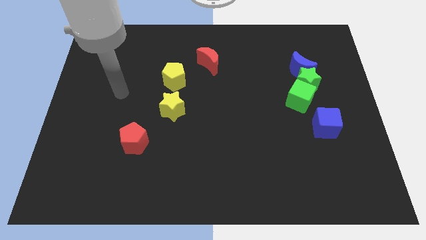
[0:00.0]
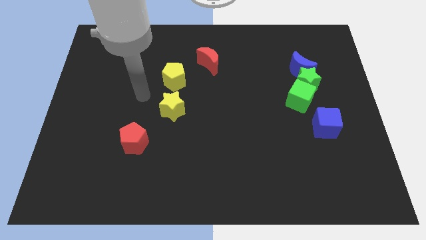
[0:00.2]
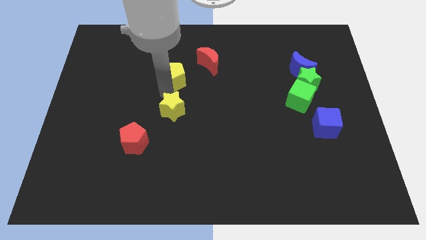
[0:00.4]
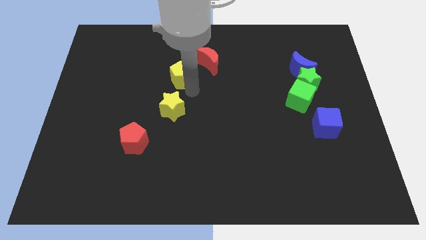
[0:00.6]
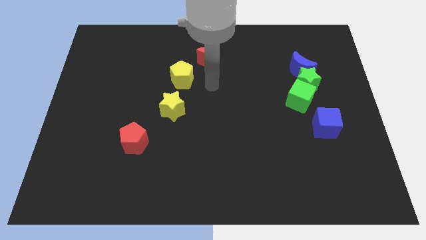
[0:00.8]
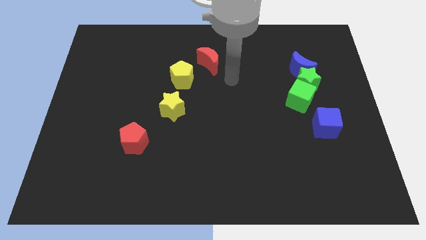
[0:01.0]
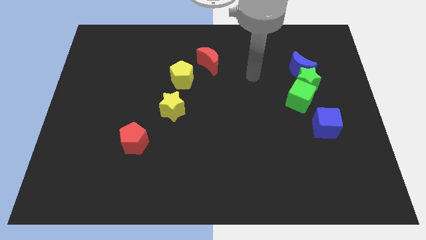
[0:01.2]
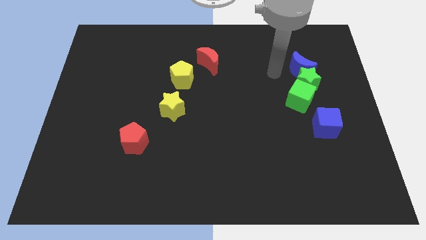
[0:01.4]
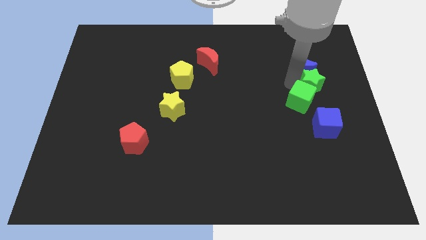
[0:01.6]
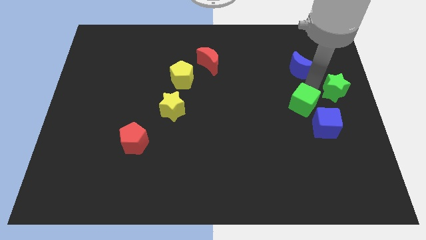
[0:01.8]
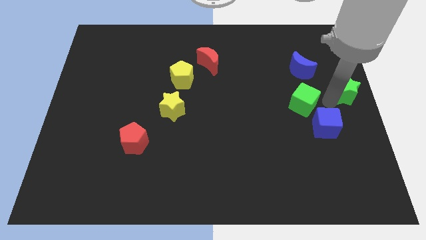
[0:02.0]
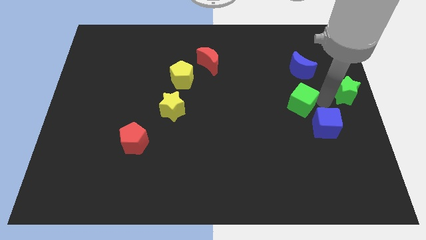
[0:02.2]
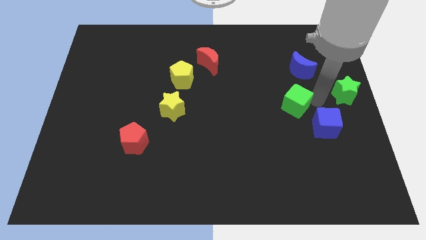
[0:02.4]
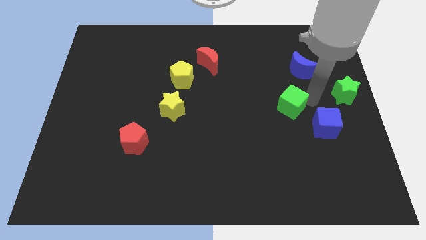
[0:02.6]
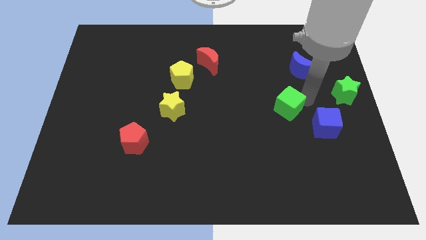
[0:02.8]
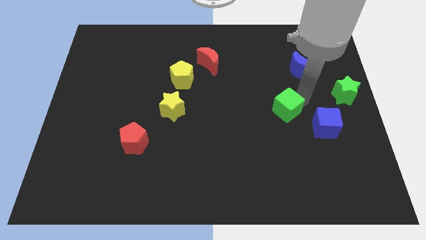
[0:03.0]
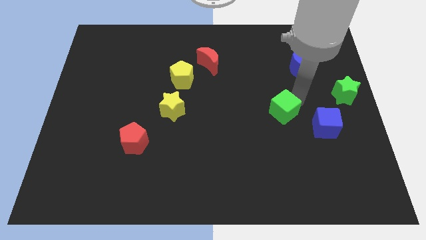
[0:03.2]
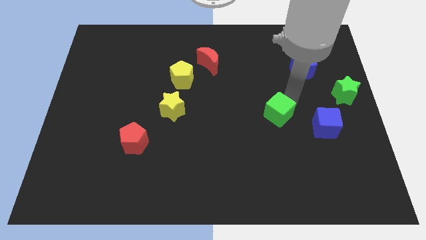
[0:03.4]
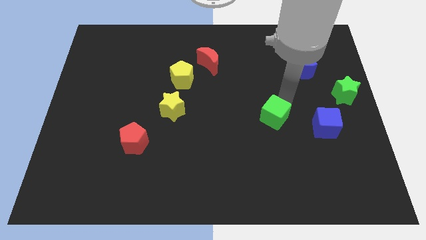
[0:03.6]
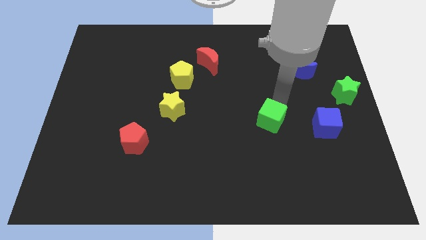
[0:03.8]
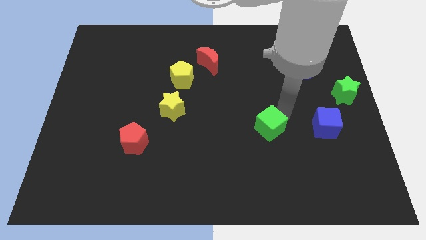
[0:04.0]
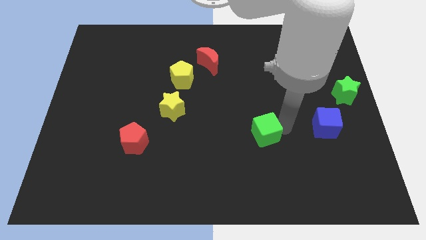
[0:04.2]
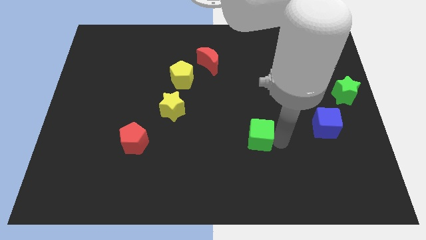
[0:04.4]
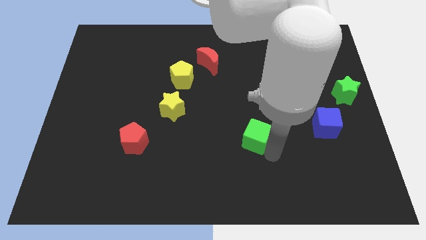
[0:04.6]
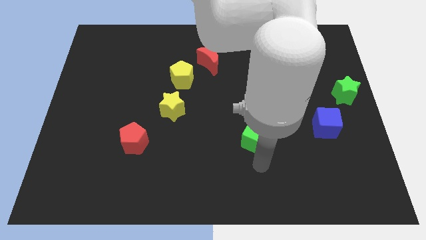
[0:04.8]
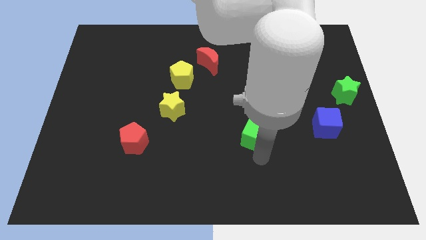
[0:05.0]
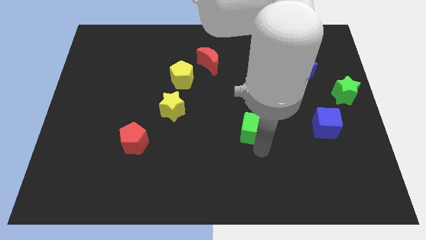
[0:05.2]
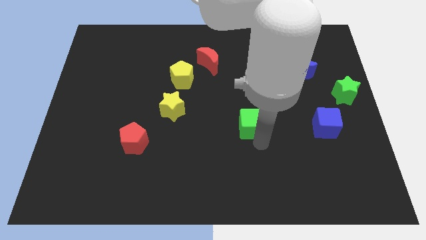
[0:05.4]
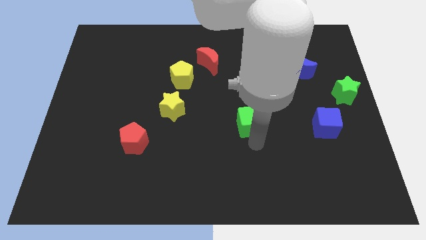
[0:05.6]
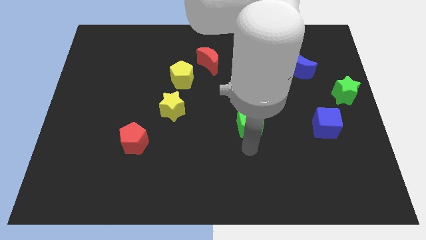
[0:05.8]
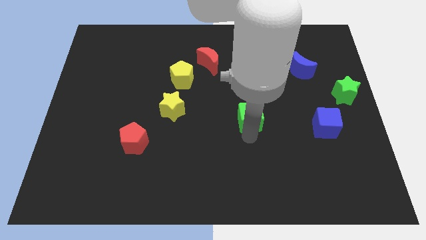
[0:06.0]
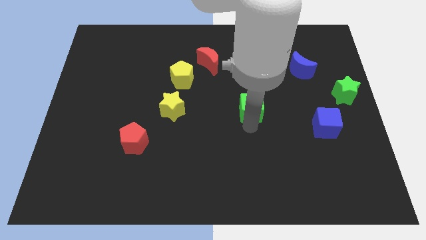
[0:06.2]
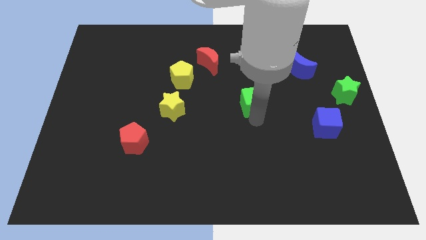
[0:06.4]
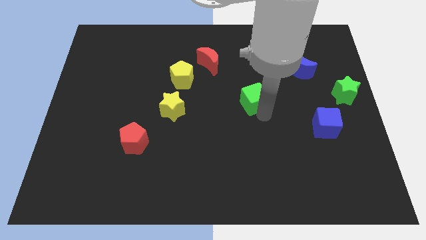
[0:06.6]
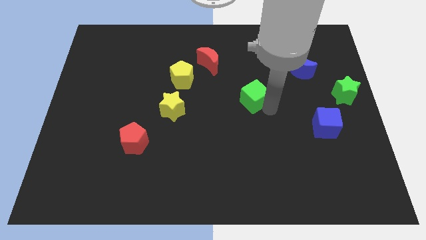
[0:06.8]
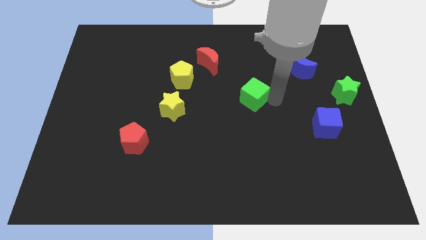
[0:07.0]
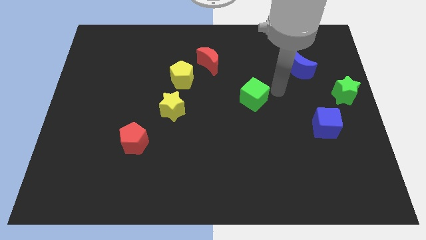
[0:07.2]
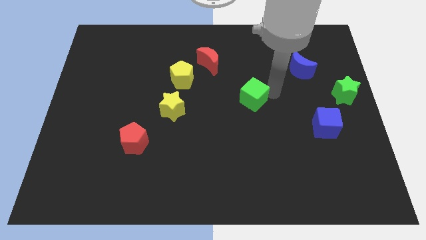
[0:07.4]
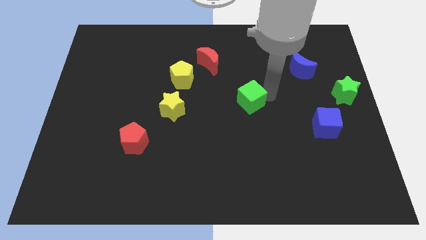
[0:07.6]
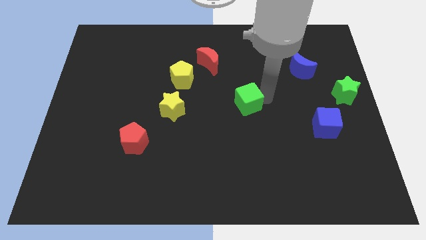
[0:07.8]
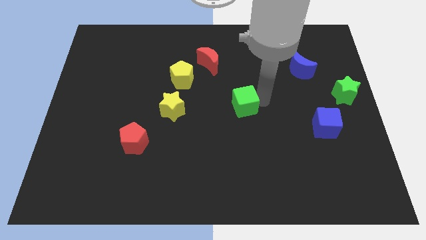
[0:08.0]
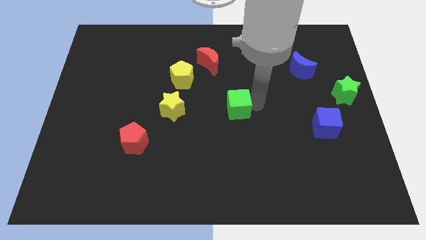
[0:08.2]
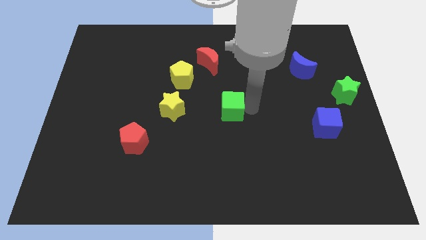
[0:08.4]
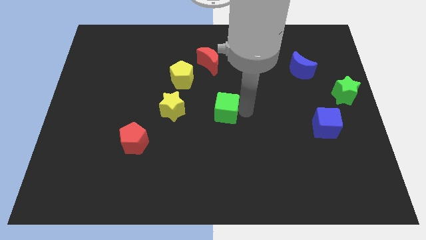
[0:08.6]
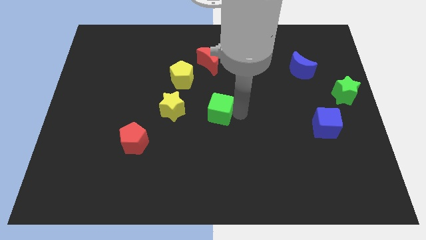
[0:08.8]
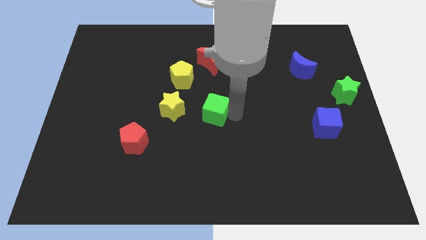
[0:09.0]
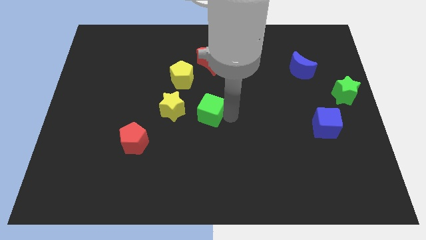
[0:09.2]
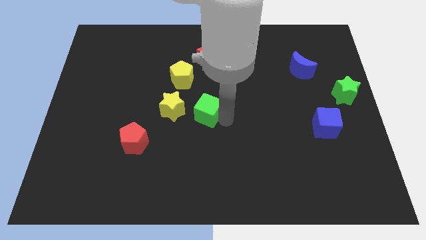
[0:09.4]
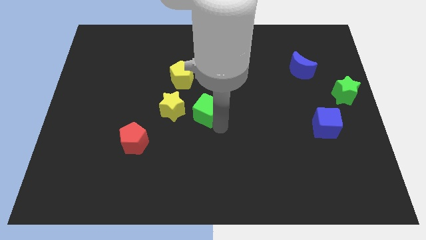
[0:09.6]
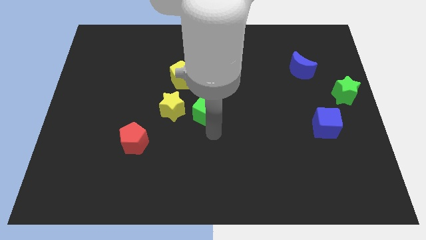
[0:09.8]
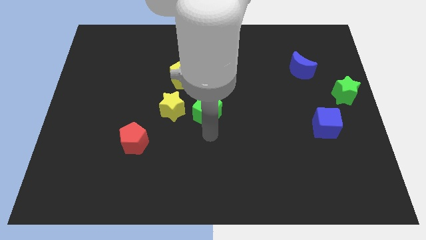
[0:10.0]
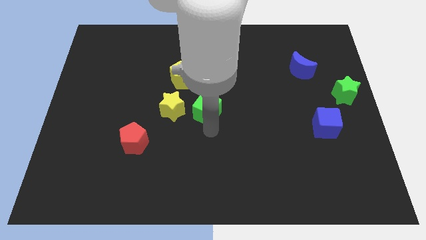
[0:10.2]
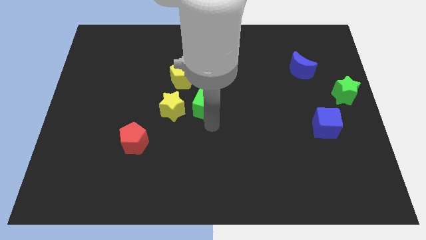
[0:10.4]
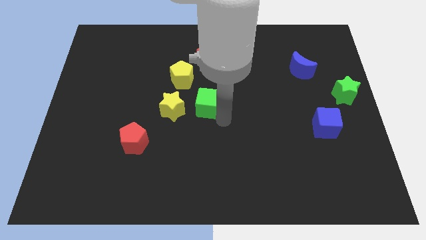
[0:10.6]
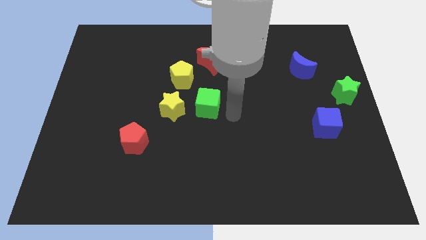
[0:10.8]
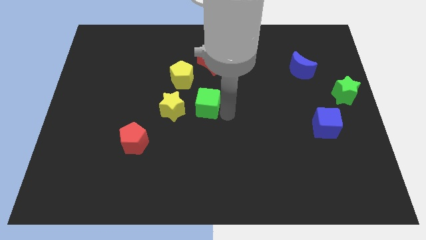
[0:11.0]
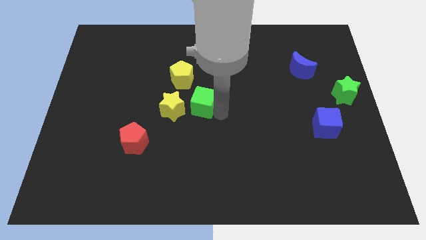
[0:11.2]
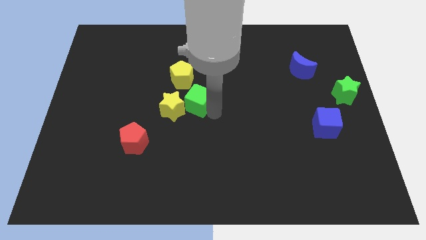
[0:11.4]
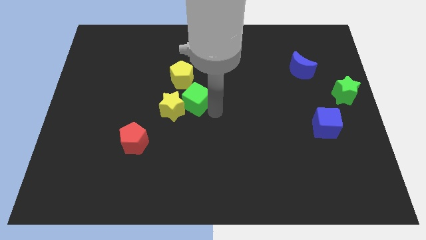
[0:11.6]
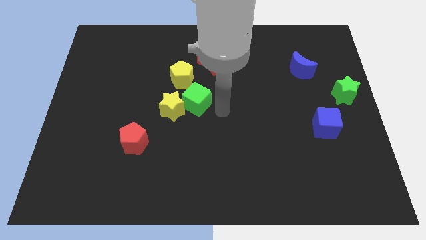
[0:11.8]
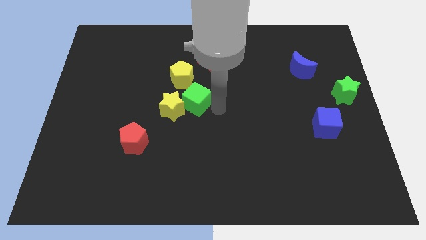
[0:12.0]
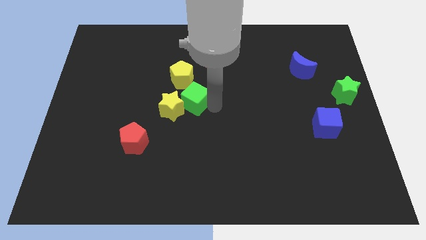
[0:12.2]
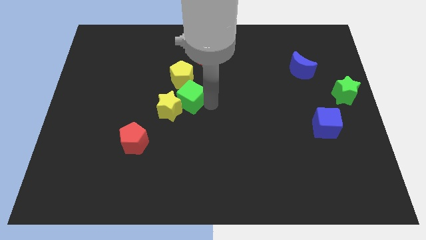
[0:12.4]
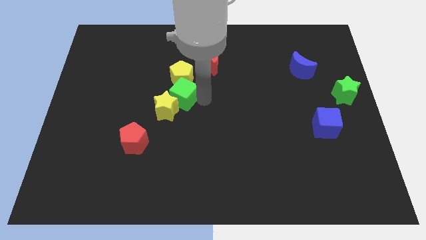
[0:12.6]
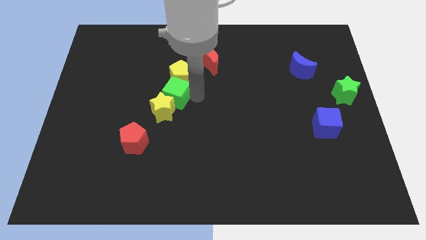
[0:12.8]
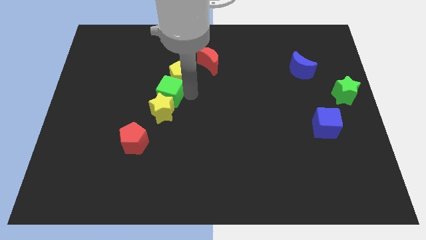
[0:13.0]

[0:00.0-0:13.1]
move the green cube to the top left side of the yellow star

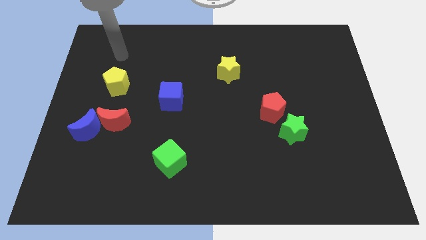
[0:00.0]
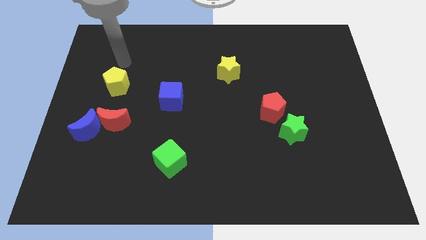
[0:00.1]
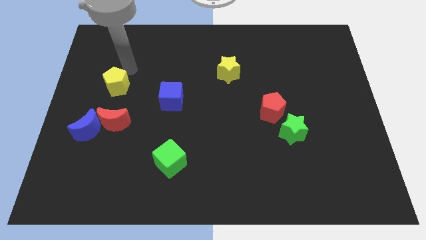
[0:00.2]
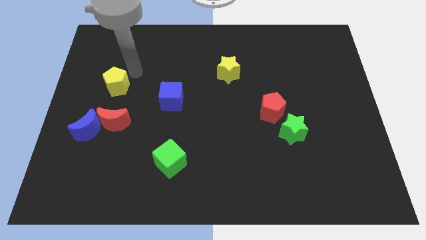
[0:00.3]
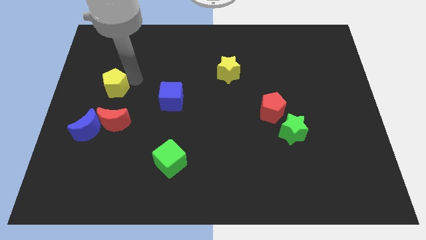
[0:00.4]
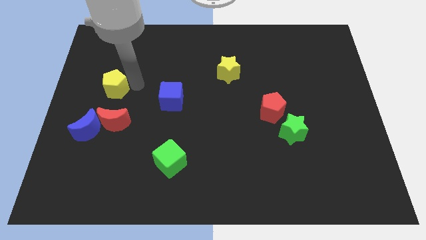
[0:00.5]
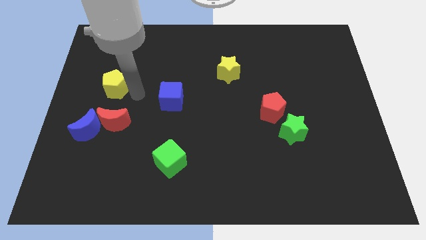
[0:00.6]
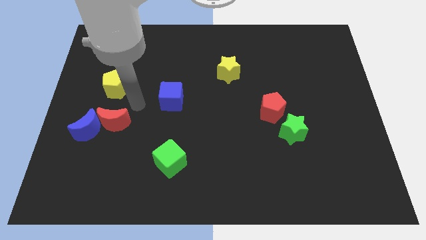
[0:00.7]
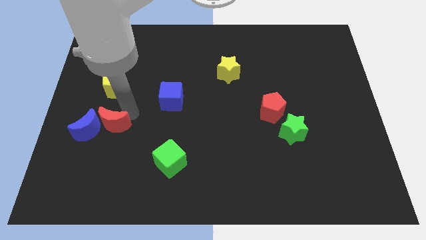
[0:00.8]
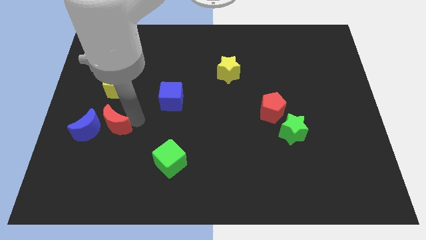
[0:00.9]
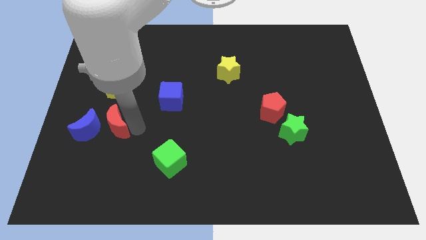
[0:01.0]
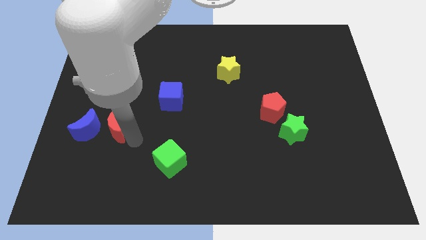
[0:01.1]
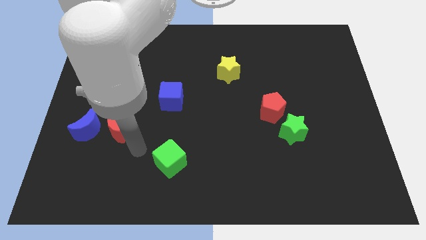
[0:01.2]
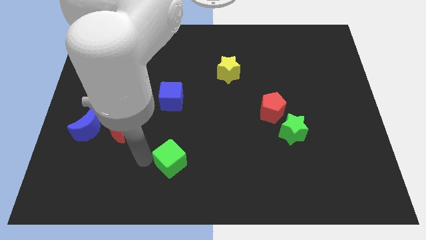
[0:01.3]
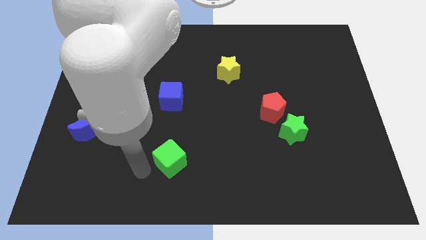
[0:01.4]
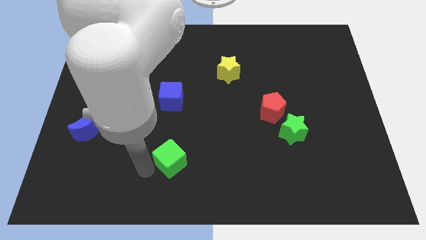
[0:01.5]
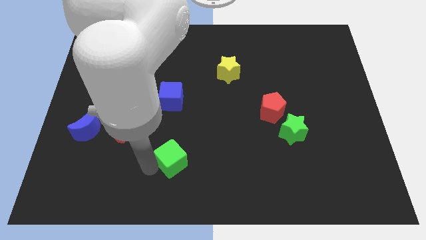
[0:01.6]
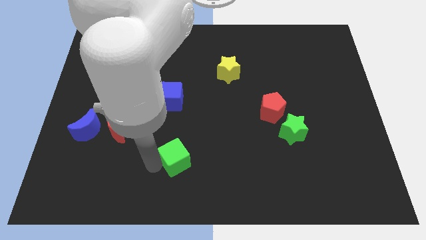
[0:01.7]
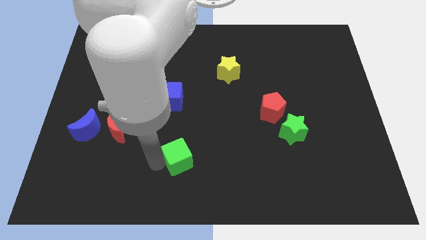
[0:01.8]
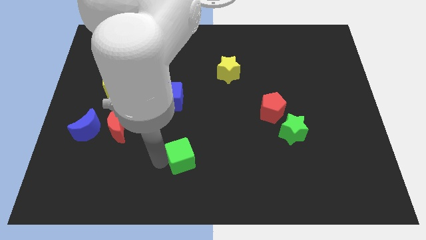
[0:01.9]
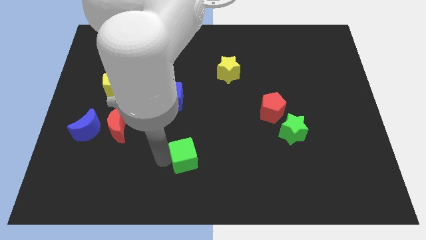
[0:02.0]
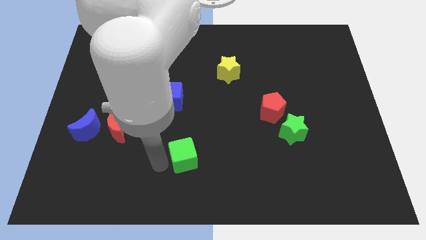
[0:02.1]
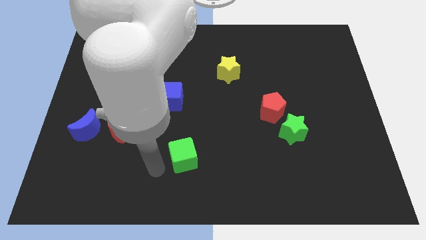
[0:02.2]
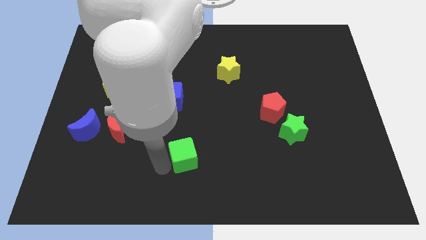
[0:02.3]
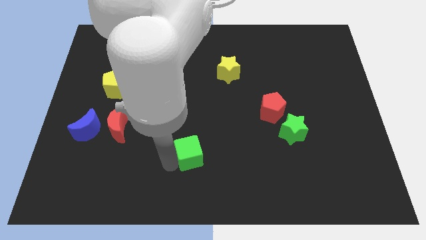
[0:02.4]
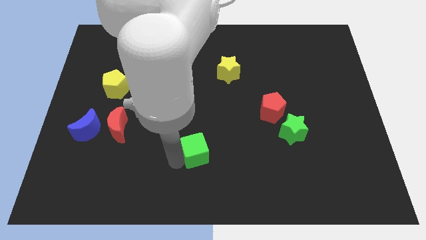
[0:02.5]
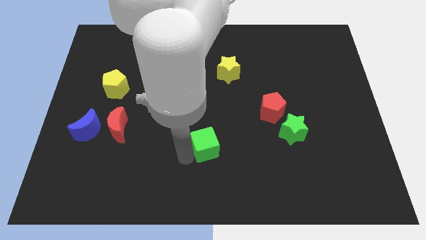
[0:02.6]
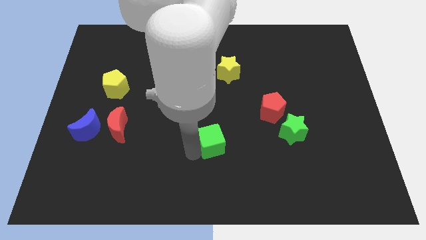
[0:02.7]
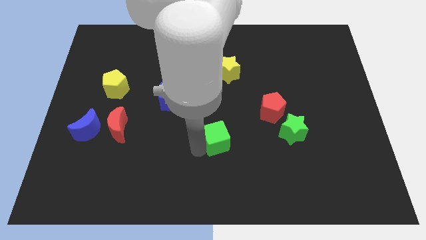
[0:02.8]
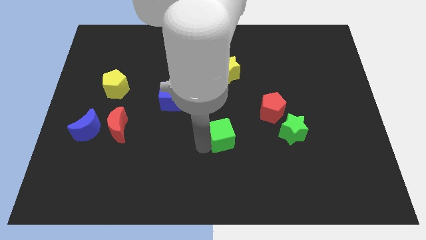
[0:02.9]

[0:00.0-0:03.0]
move the green cube to the left side of the green star
